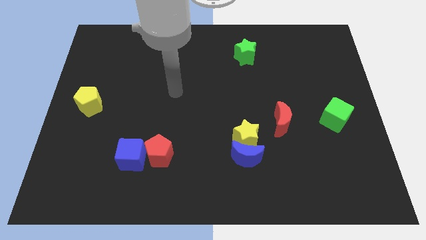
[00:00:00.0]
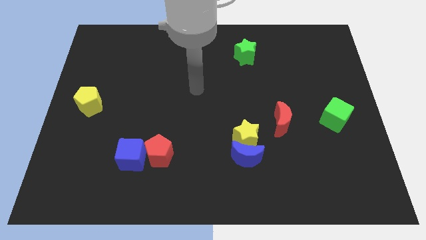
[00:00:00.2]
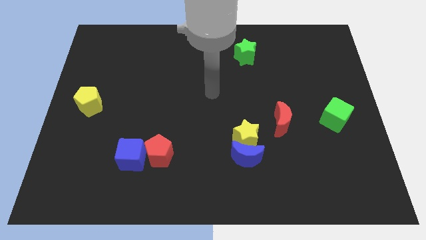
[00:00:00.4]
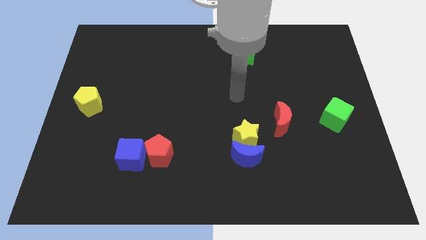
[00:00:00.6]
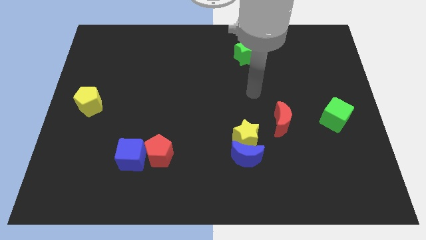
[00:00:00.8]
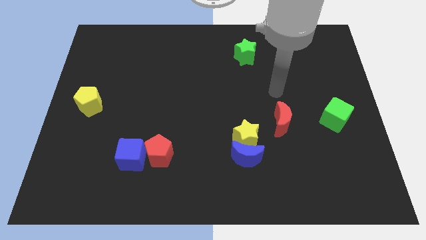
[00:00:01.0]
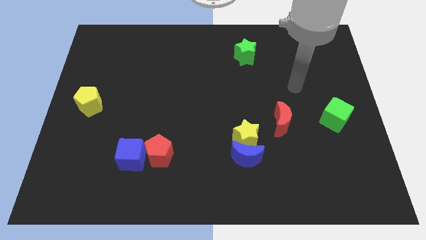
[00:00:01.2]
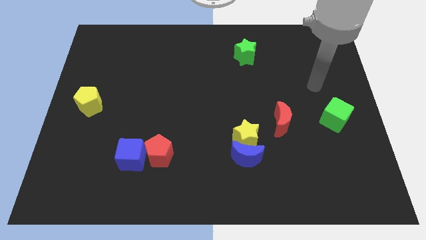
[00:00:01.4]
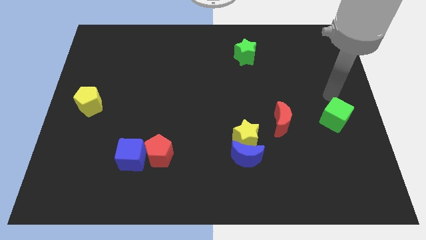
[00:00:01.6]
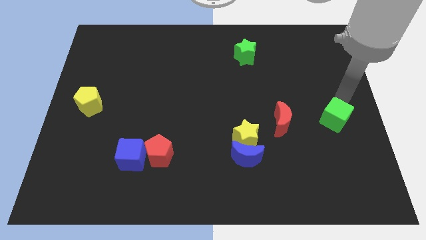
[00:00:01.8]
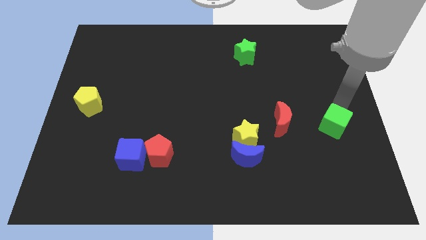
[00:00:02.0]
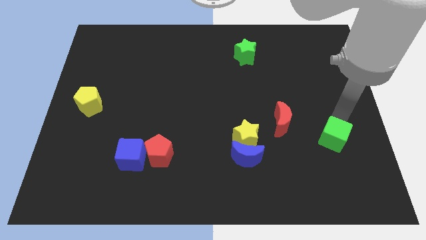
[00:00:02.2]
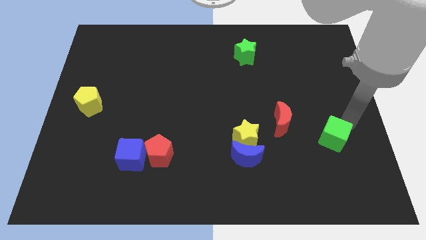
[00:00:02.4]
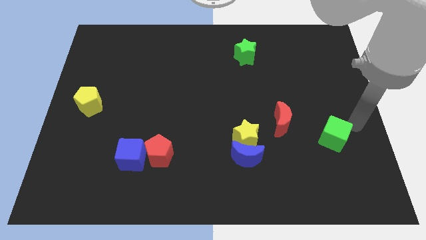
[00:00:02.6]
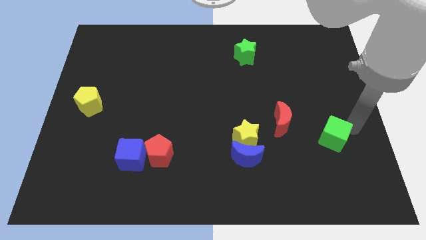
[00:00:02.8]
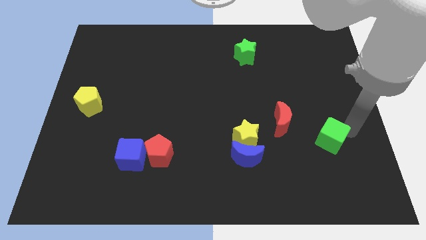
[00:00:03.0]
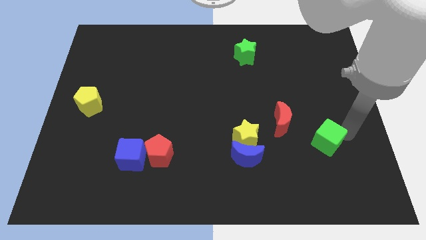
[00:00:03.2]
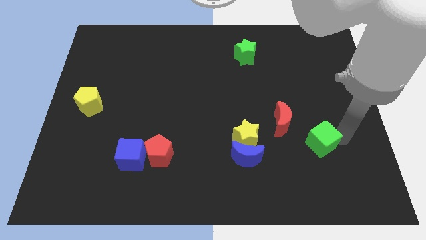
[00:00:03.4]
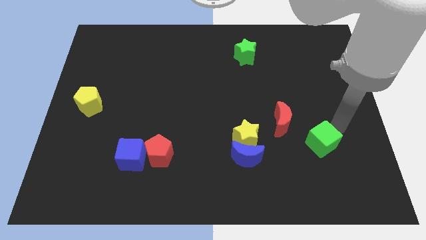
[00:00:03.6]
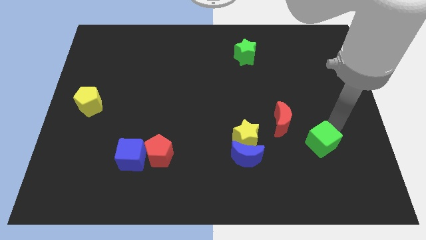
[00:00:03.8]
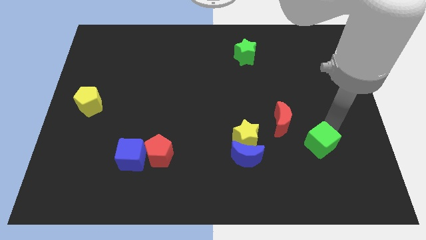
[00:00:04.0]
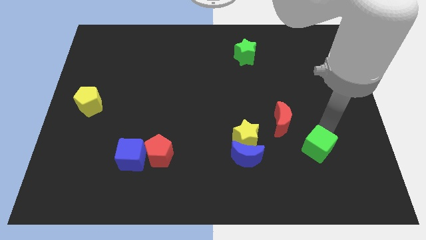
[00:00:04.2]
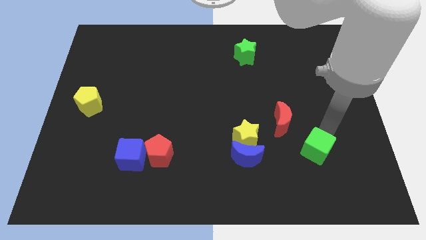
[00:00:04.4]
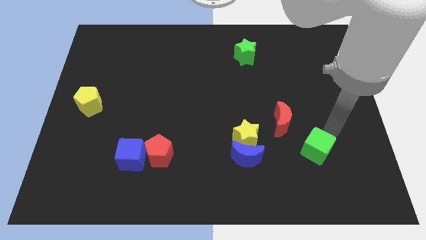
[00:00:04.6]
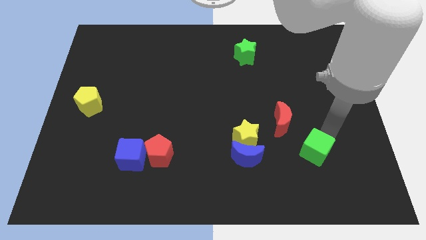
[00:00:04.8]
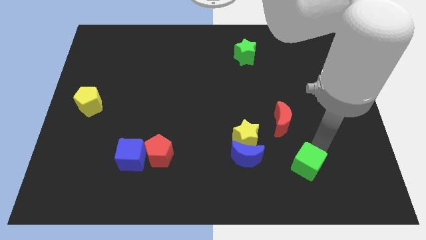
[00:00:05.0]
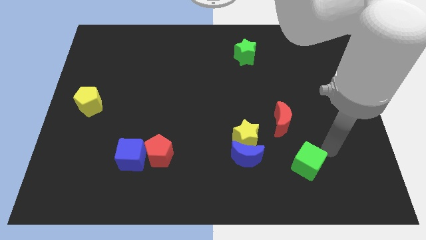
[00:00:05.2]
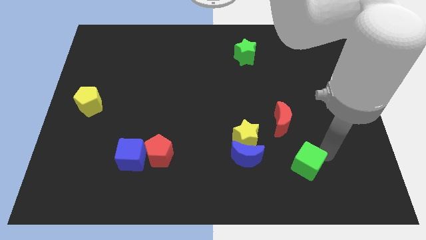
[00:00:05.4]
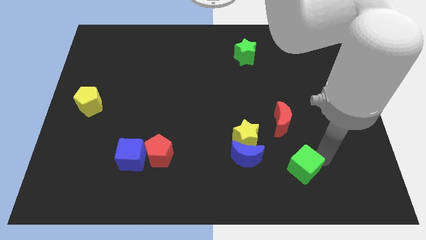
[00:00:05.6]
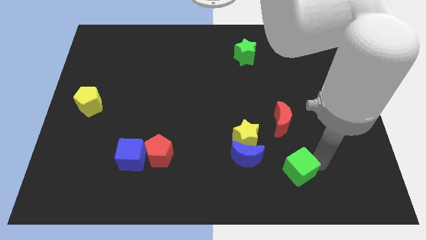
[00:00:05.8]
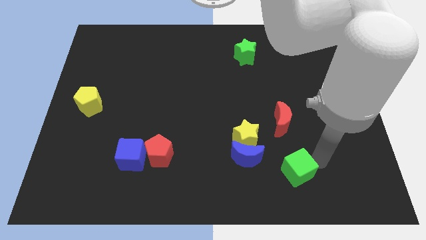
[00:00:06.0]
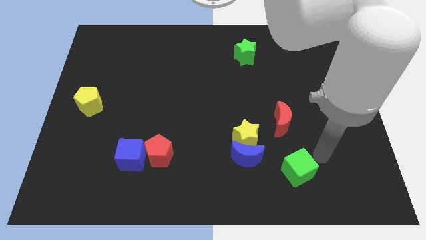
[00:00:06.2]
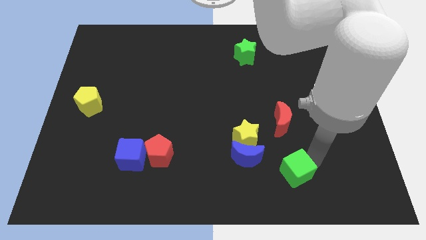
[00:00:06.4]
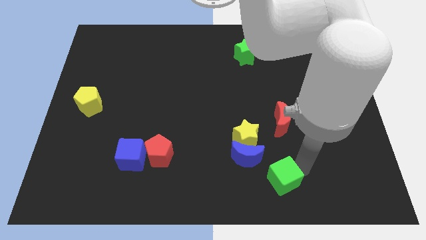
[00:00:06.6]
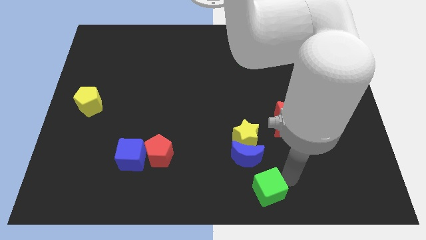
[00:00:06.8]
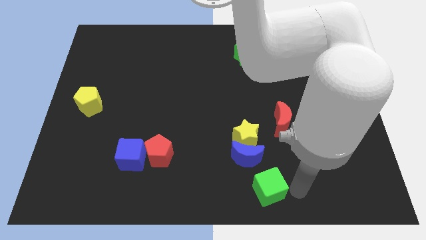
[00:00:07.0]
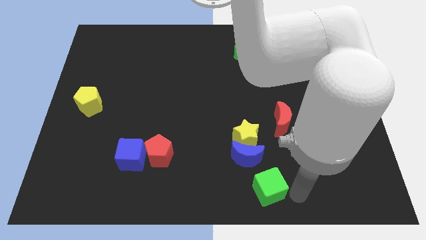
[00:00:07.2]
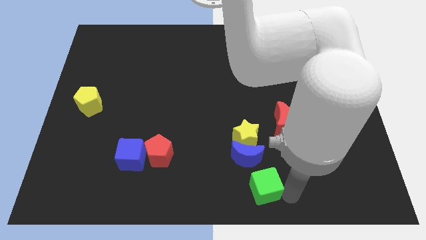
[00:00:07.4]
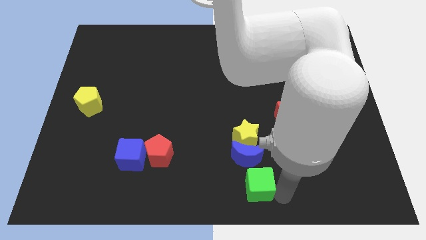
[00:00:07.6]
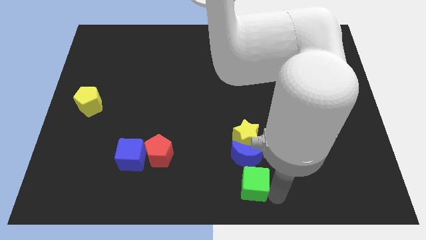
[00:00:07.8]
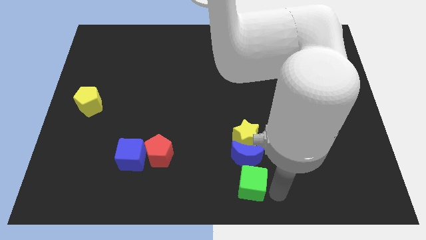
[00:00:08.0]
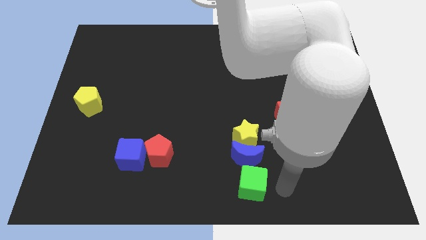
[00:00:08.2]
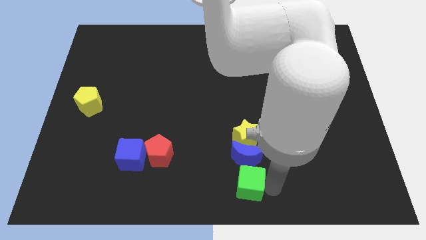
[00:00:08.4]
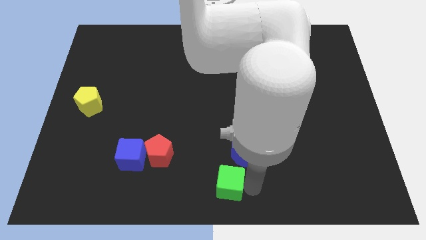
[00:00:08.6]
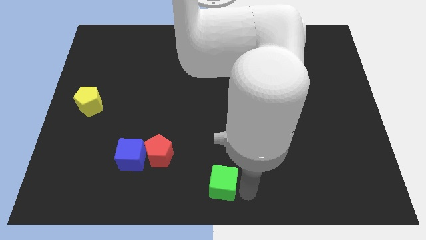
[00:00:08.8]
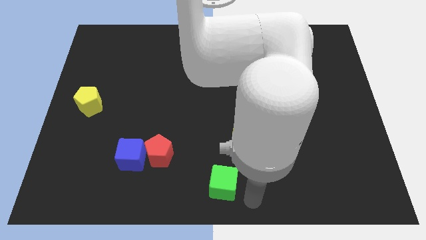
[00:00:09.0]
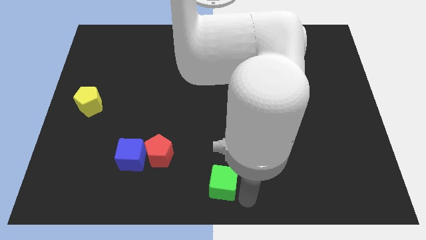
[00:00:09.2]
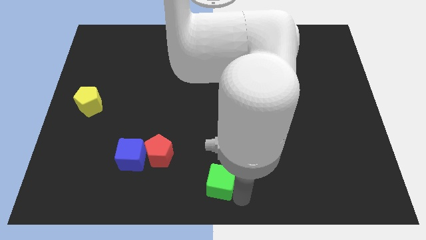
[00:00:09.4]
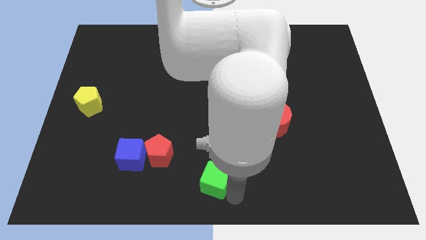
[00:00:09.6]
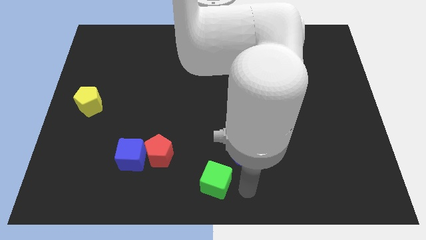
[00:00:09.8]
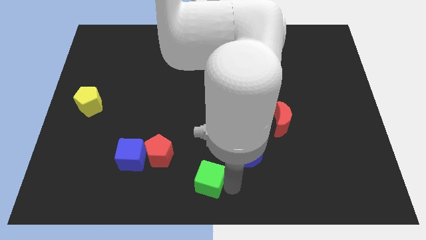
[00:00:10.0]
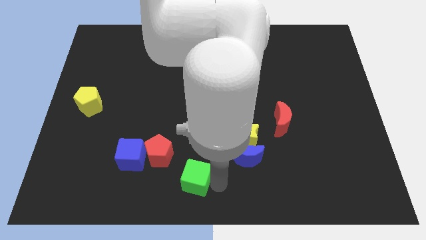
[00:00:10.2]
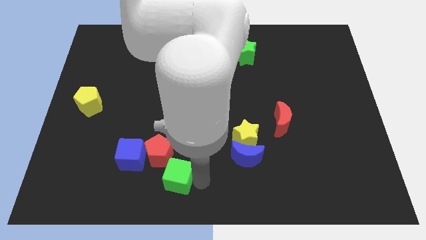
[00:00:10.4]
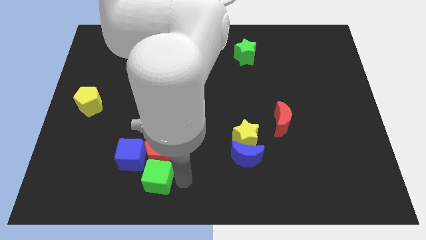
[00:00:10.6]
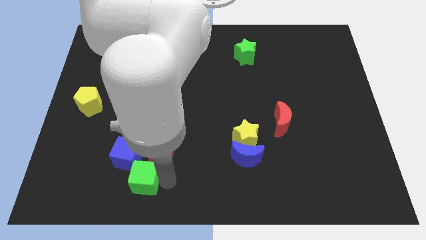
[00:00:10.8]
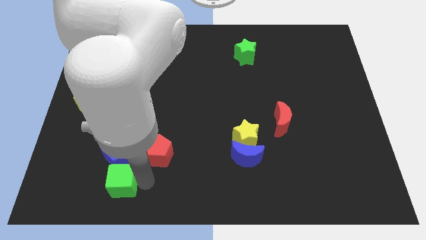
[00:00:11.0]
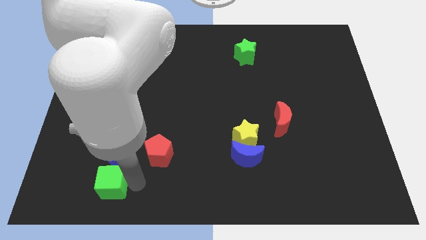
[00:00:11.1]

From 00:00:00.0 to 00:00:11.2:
slide the green cube to the bottom left side of the blue cube

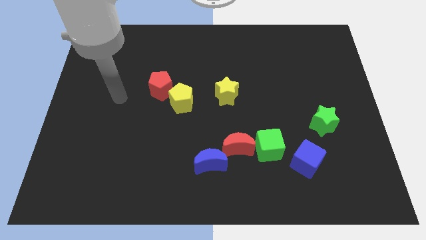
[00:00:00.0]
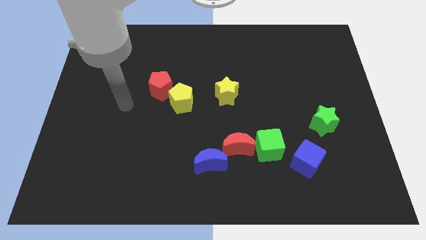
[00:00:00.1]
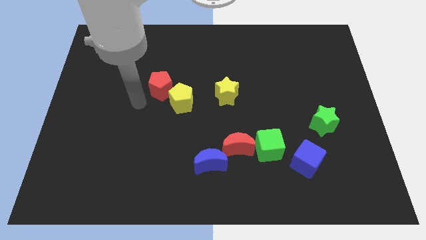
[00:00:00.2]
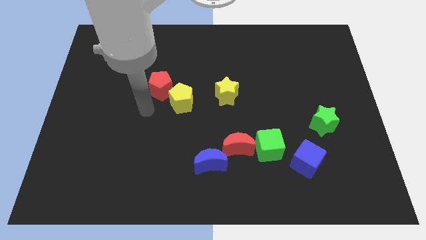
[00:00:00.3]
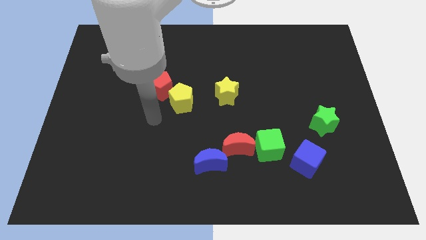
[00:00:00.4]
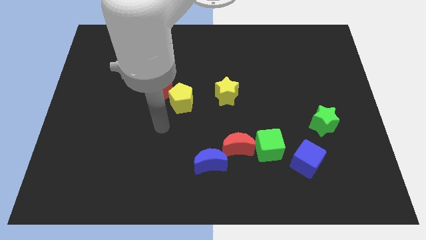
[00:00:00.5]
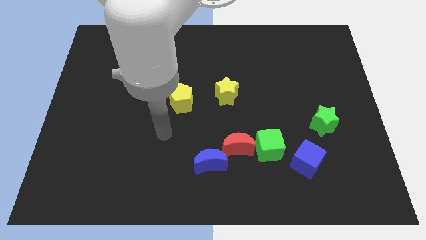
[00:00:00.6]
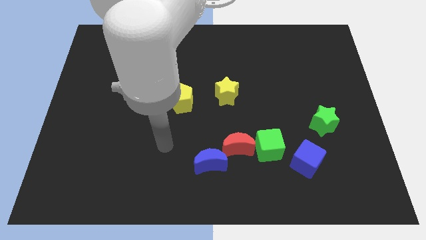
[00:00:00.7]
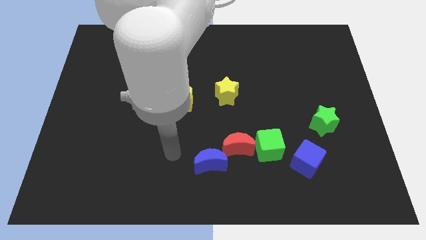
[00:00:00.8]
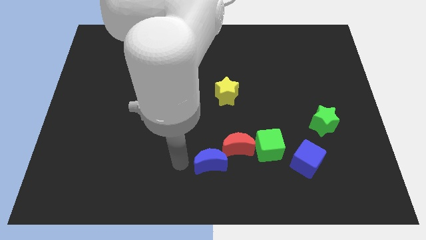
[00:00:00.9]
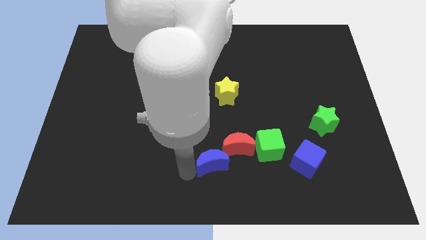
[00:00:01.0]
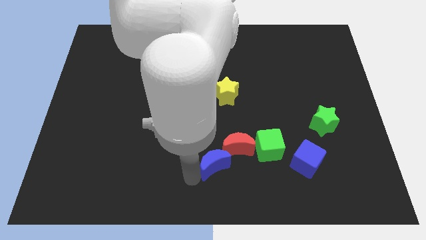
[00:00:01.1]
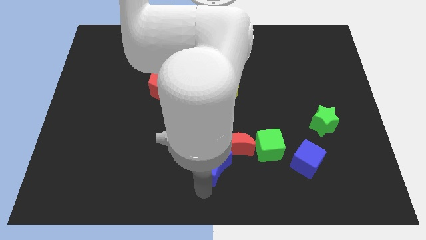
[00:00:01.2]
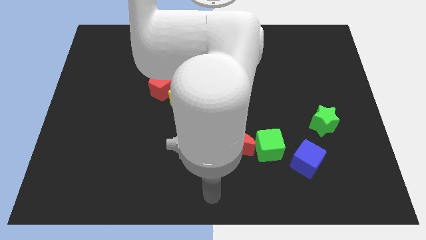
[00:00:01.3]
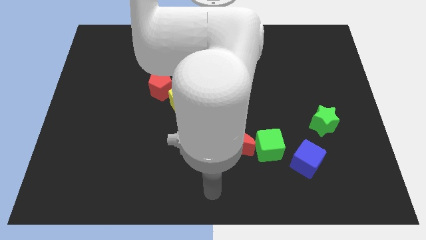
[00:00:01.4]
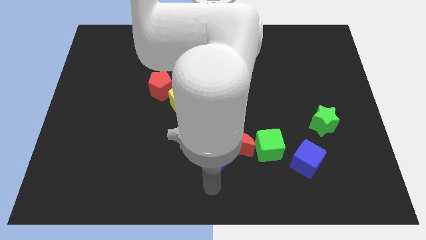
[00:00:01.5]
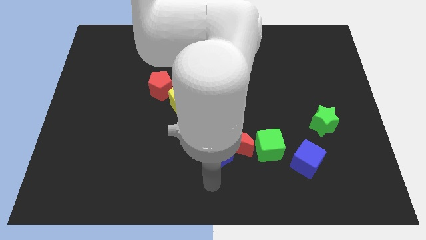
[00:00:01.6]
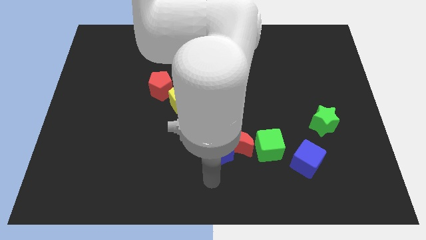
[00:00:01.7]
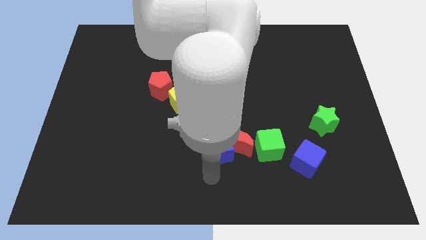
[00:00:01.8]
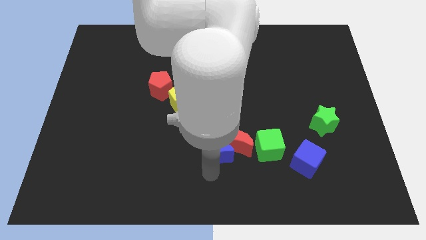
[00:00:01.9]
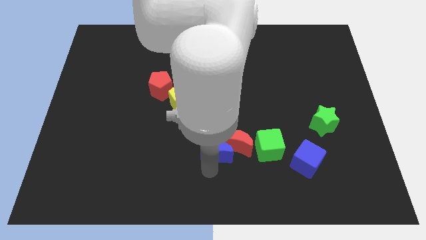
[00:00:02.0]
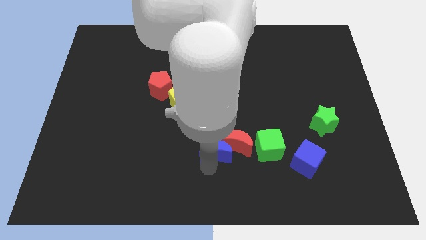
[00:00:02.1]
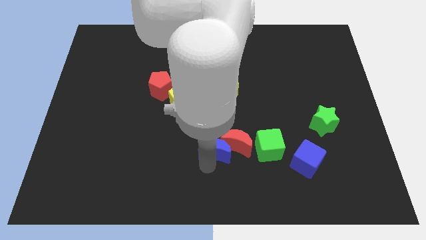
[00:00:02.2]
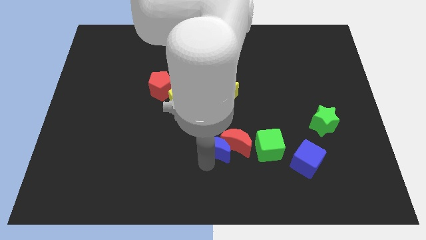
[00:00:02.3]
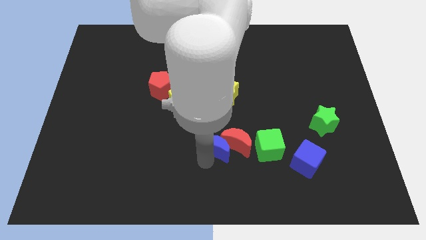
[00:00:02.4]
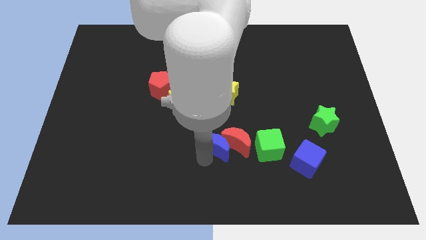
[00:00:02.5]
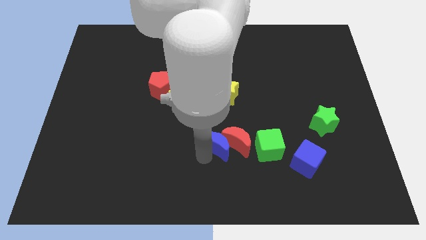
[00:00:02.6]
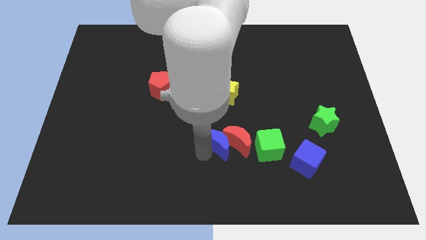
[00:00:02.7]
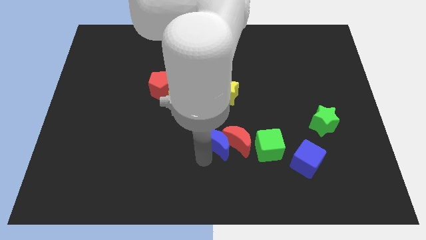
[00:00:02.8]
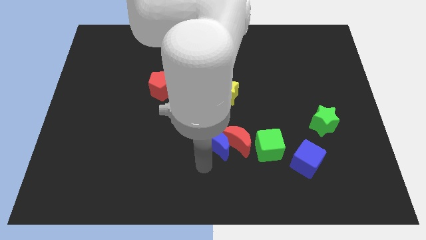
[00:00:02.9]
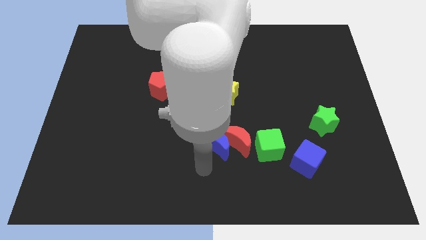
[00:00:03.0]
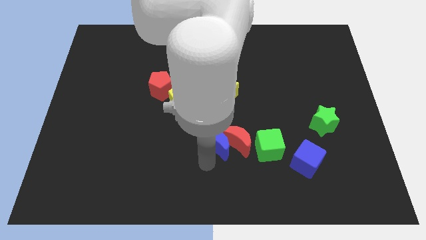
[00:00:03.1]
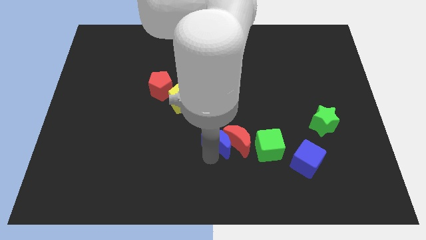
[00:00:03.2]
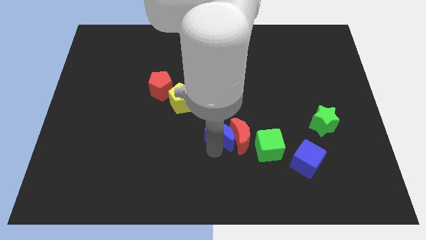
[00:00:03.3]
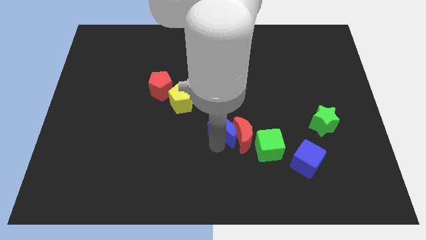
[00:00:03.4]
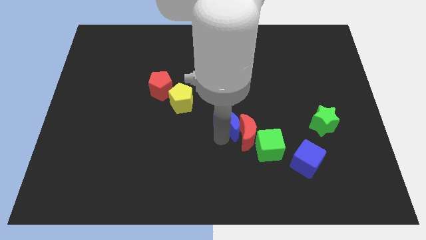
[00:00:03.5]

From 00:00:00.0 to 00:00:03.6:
put the blue moon above the red moon
